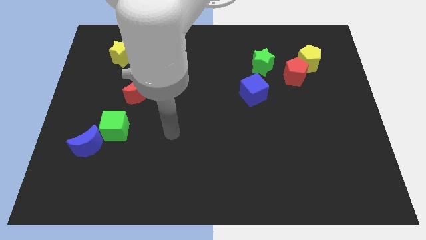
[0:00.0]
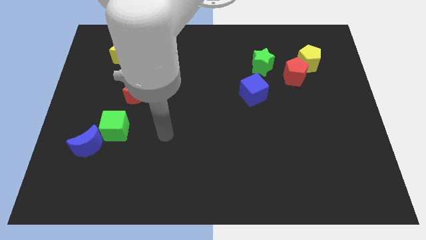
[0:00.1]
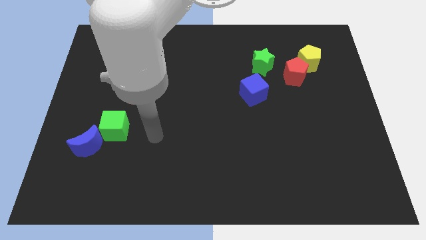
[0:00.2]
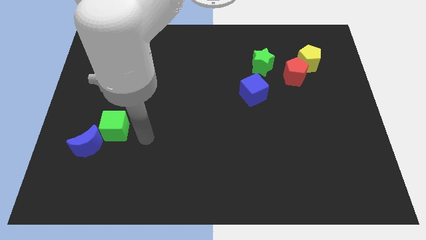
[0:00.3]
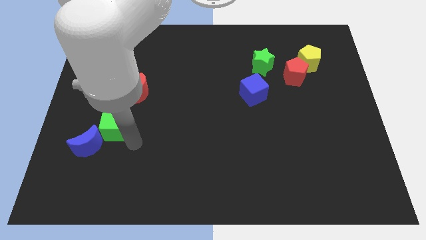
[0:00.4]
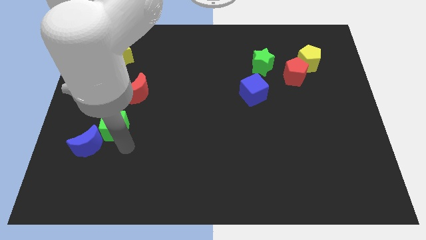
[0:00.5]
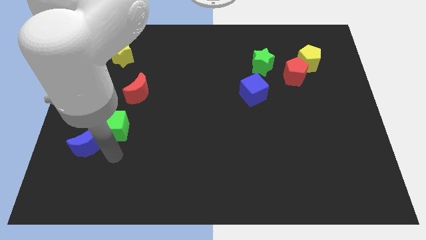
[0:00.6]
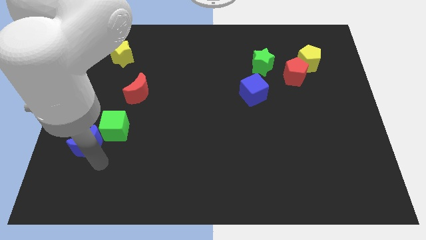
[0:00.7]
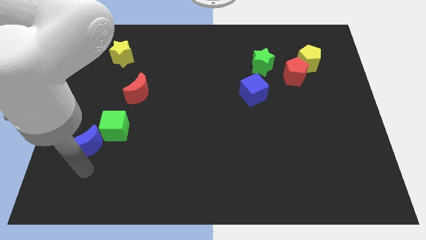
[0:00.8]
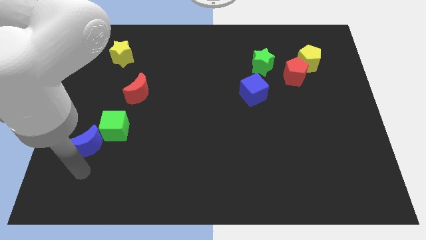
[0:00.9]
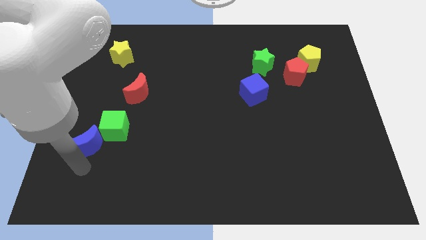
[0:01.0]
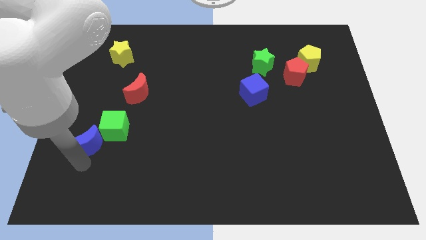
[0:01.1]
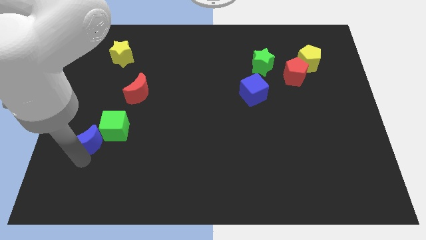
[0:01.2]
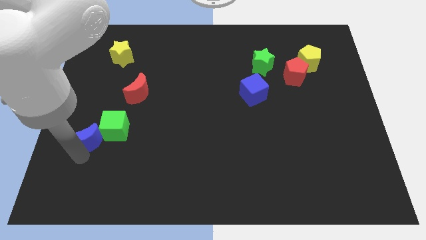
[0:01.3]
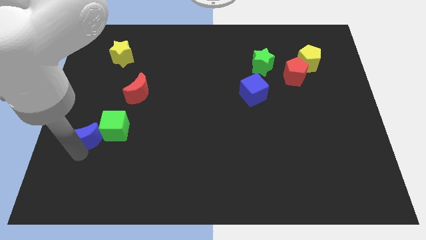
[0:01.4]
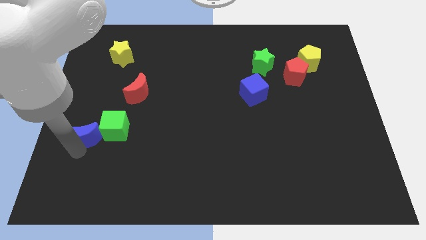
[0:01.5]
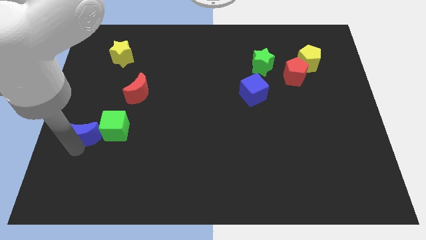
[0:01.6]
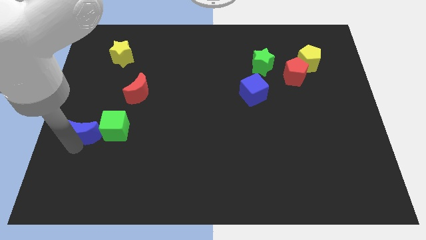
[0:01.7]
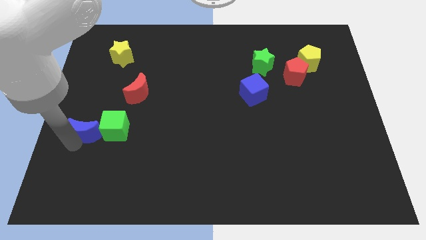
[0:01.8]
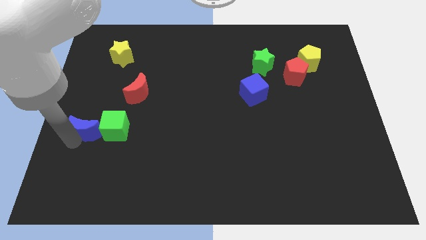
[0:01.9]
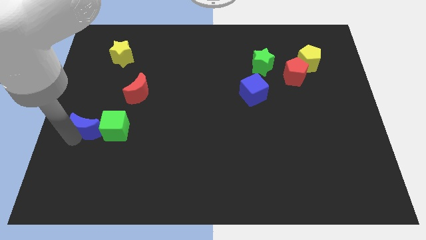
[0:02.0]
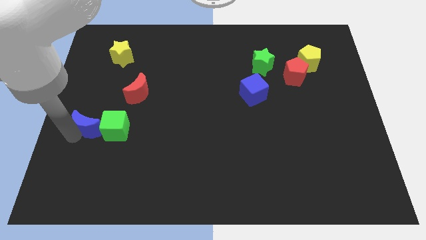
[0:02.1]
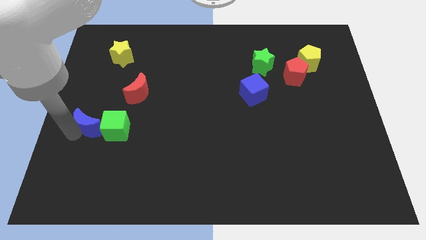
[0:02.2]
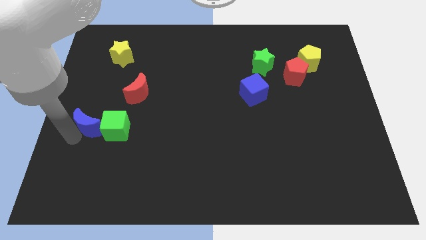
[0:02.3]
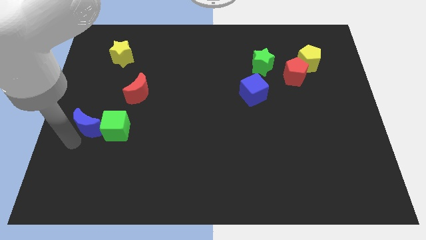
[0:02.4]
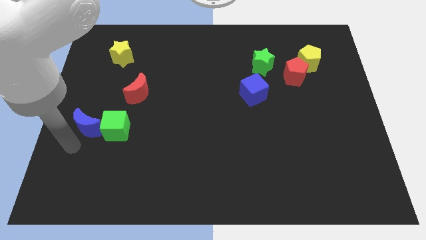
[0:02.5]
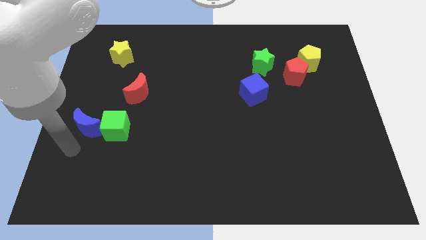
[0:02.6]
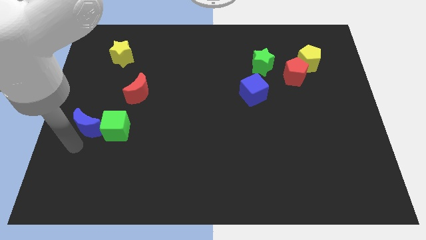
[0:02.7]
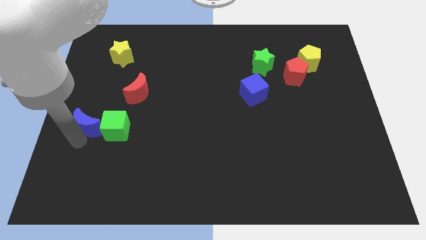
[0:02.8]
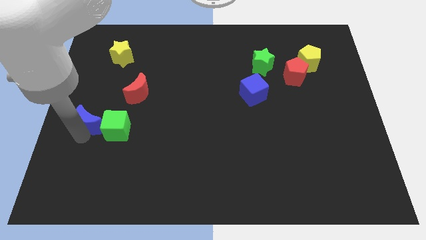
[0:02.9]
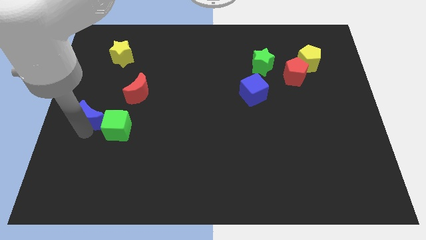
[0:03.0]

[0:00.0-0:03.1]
move the blue moon up slightly

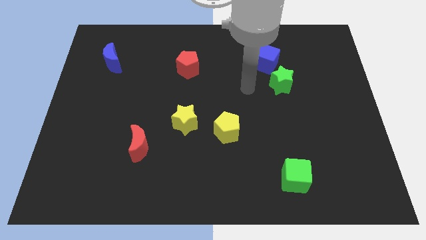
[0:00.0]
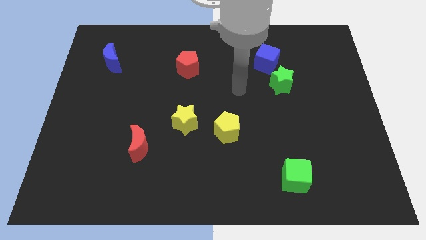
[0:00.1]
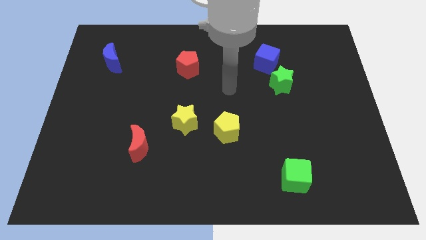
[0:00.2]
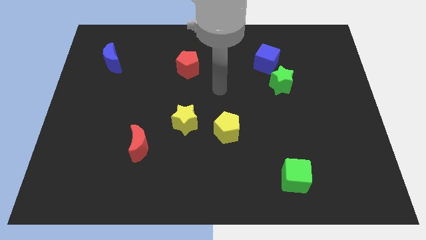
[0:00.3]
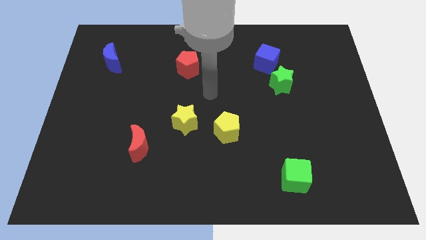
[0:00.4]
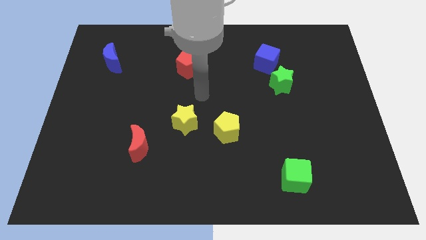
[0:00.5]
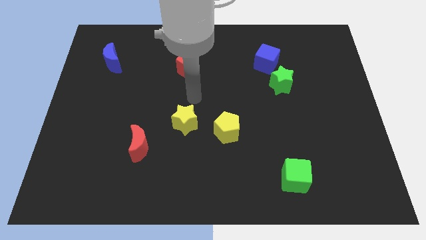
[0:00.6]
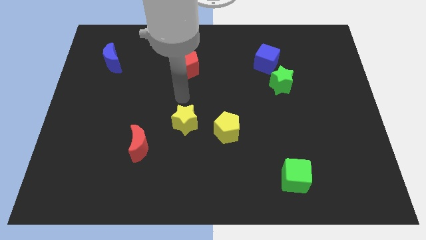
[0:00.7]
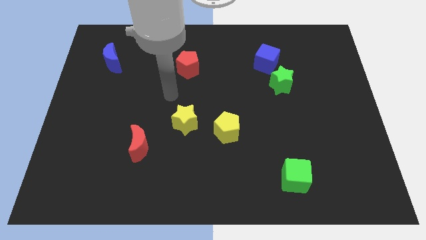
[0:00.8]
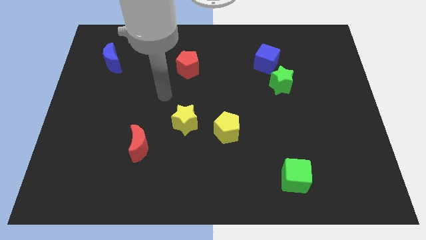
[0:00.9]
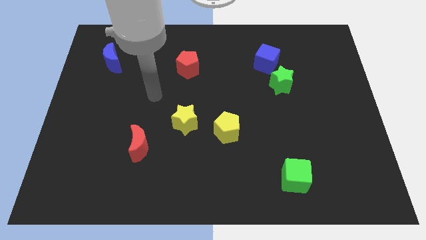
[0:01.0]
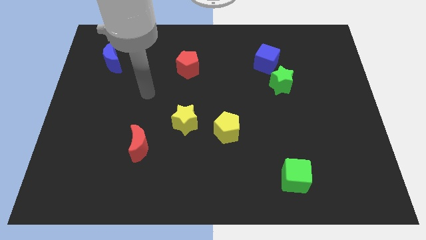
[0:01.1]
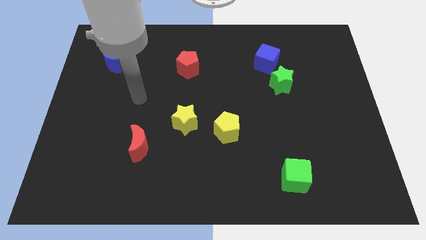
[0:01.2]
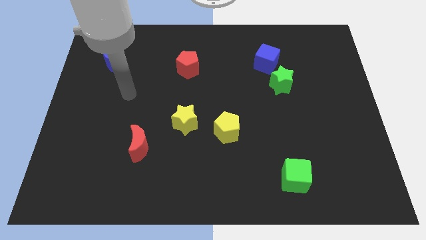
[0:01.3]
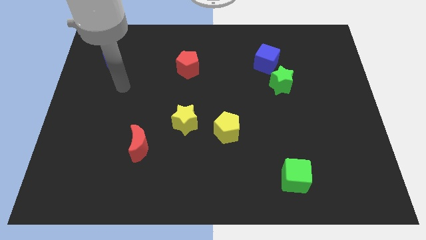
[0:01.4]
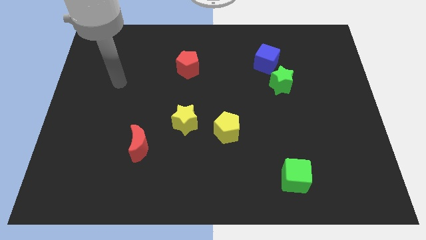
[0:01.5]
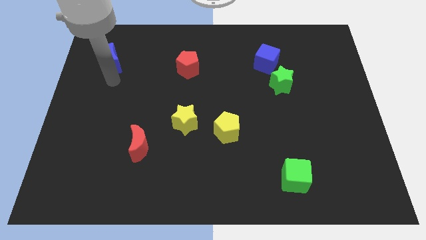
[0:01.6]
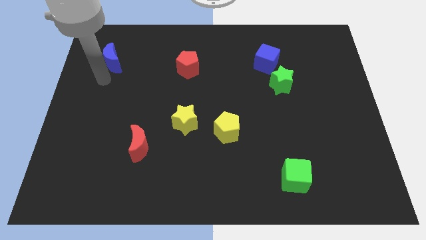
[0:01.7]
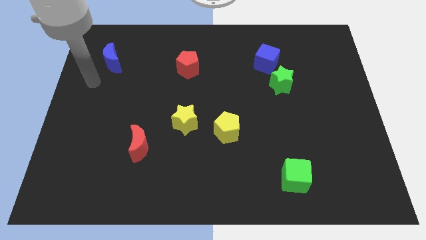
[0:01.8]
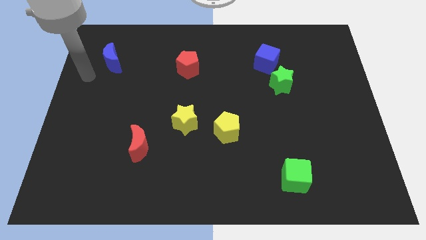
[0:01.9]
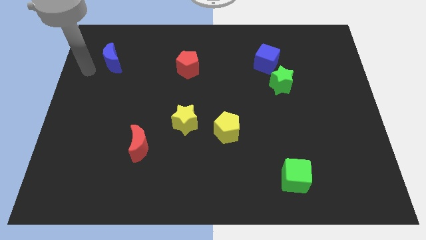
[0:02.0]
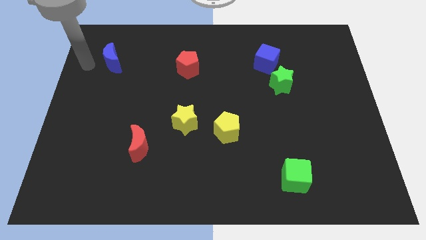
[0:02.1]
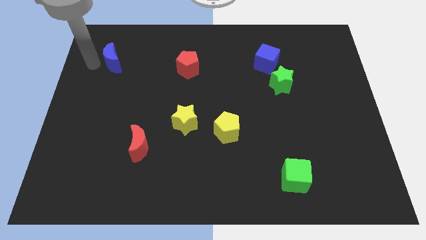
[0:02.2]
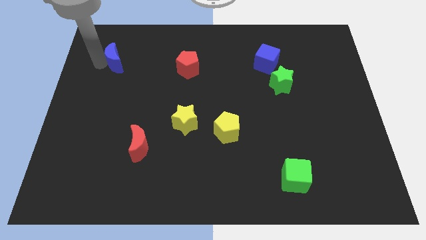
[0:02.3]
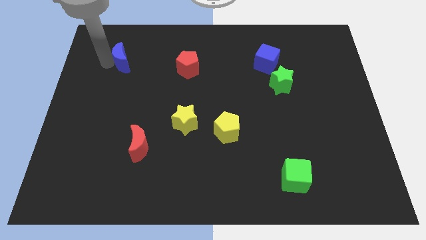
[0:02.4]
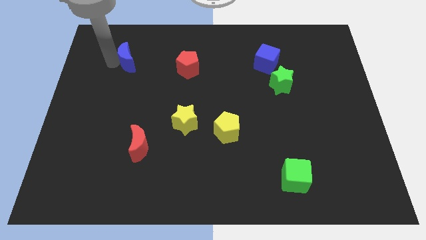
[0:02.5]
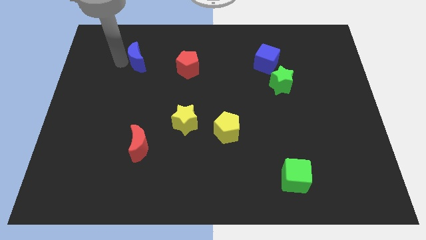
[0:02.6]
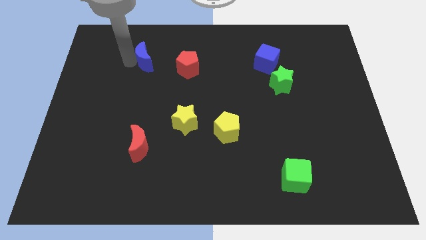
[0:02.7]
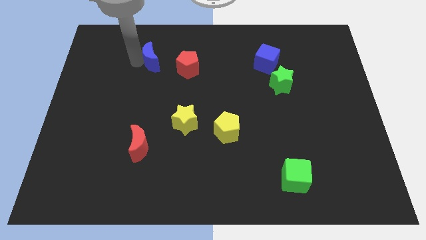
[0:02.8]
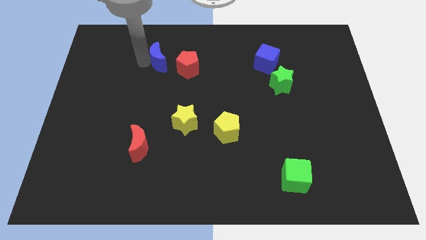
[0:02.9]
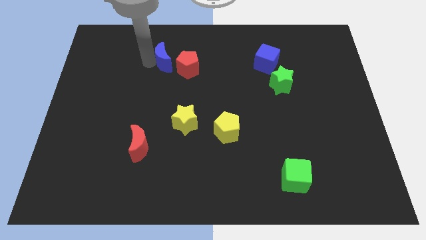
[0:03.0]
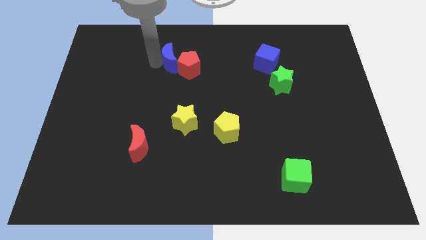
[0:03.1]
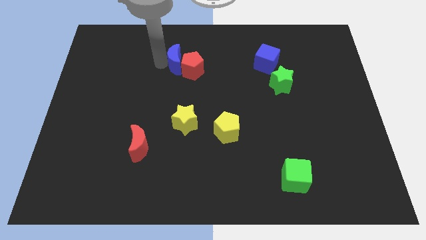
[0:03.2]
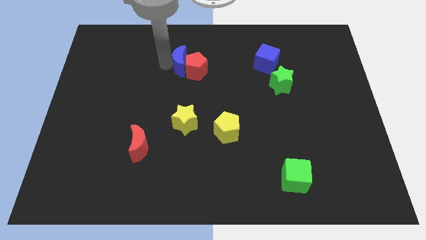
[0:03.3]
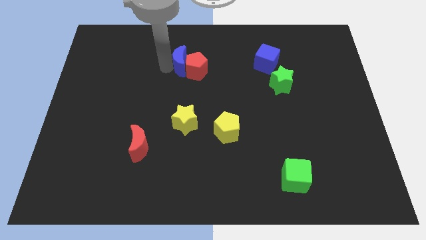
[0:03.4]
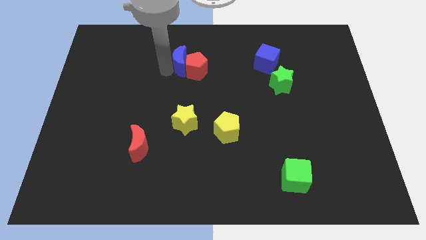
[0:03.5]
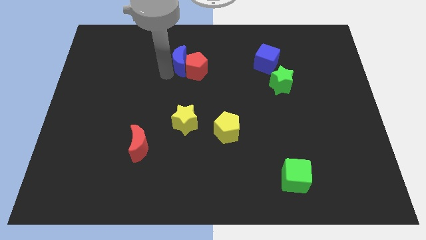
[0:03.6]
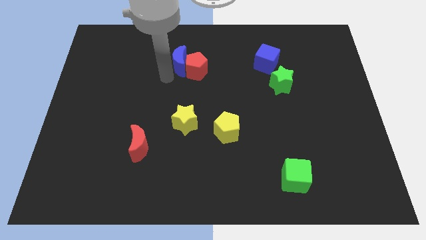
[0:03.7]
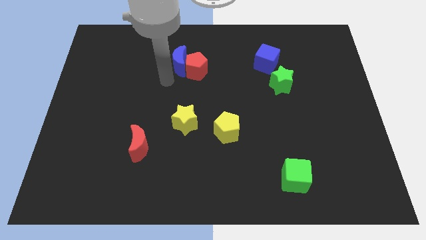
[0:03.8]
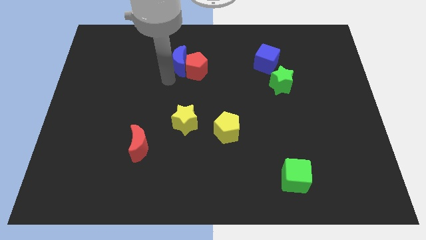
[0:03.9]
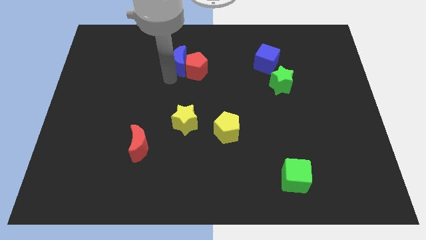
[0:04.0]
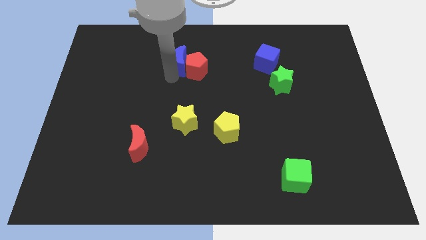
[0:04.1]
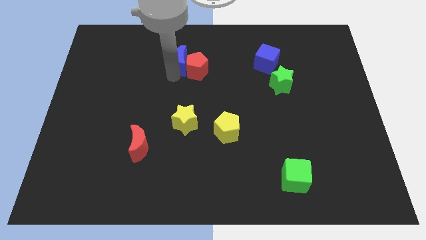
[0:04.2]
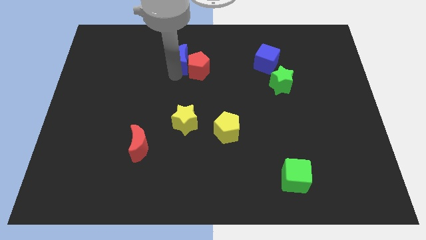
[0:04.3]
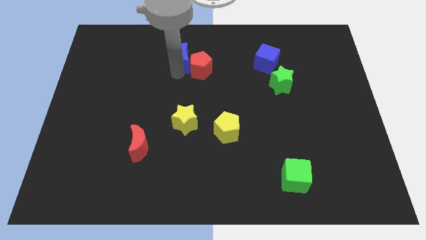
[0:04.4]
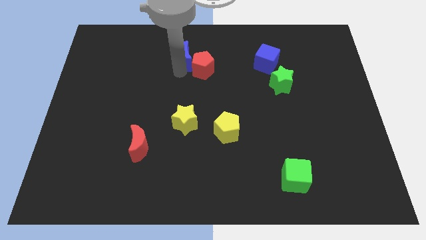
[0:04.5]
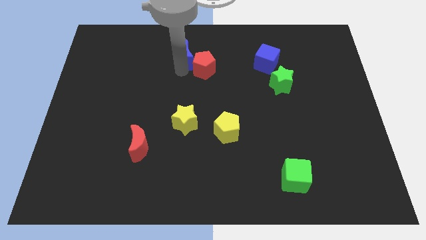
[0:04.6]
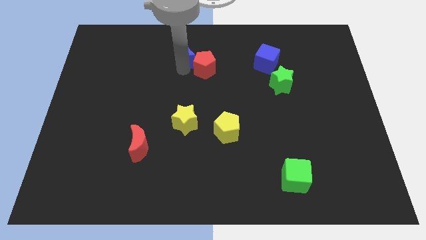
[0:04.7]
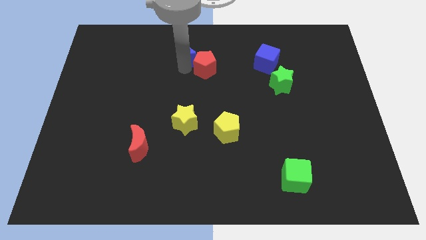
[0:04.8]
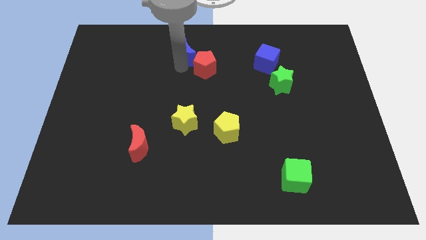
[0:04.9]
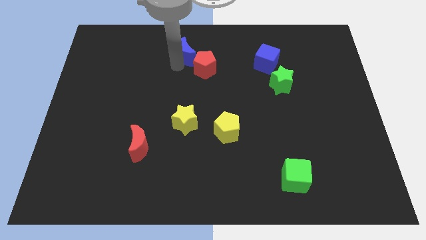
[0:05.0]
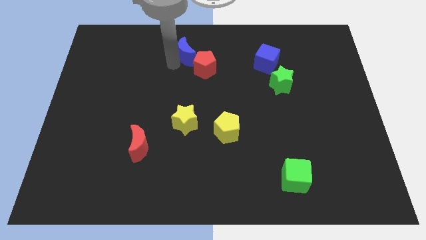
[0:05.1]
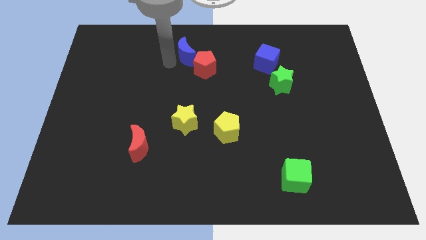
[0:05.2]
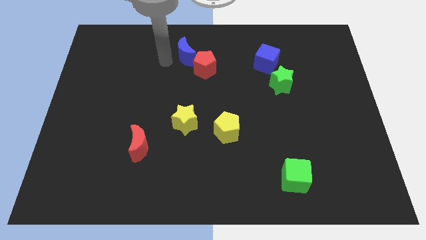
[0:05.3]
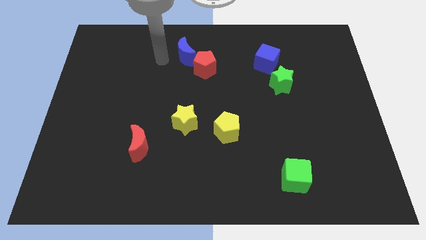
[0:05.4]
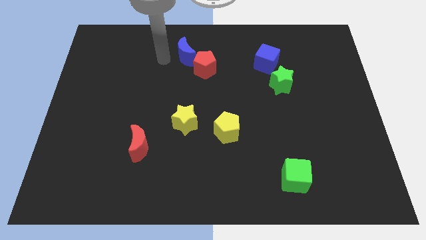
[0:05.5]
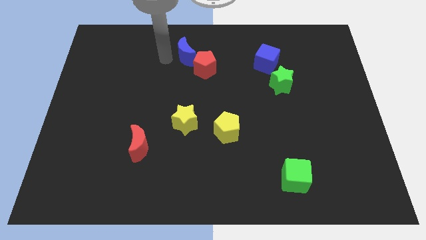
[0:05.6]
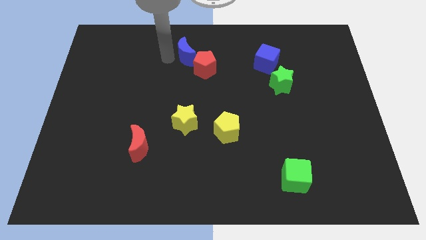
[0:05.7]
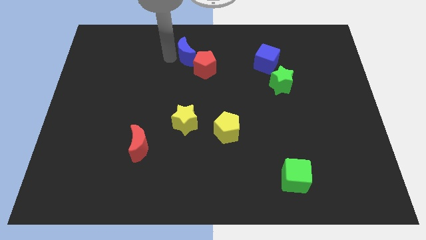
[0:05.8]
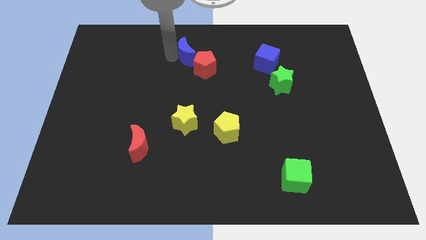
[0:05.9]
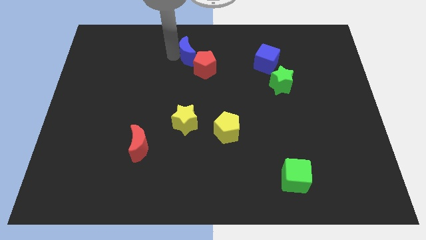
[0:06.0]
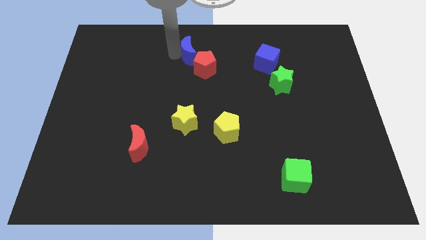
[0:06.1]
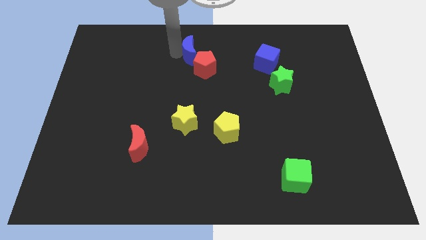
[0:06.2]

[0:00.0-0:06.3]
slide the blue moon to the right
